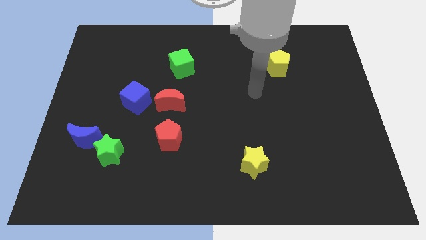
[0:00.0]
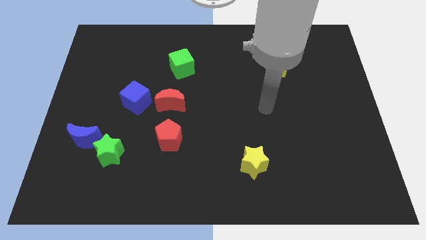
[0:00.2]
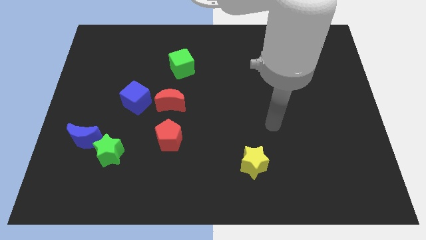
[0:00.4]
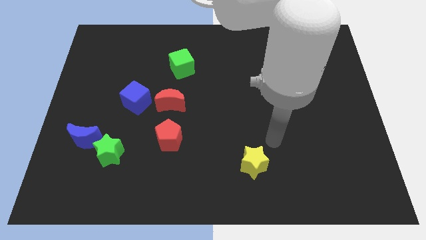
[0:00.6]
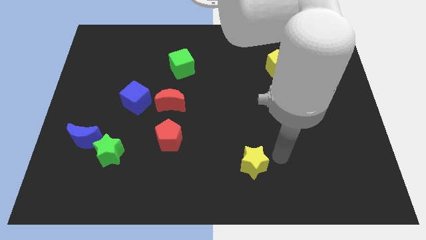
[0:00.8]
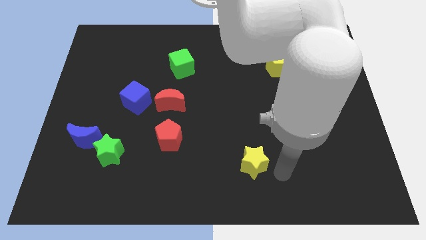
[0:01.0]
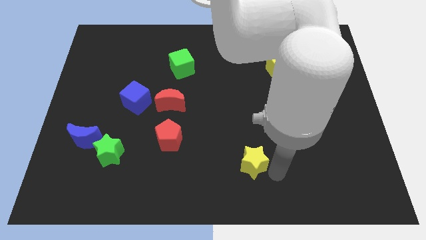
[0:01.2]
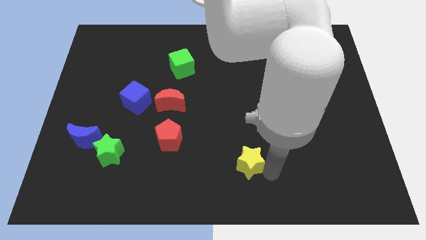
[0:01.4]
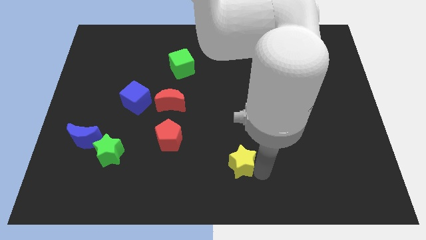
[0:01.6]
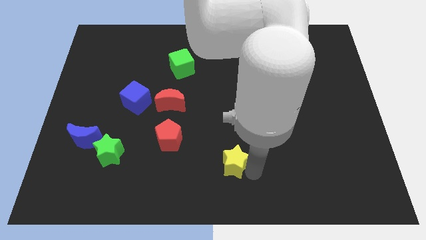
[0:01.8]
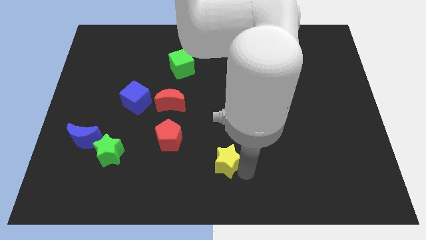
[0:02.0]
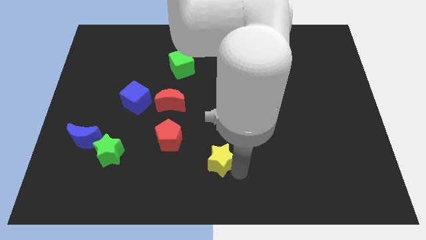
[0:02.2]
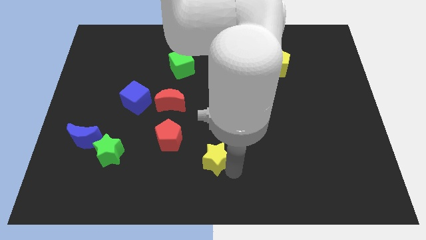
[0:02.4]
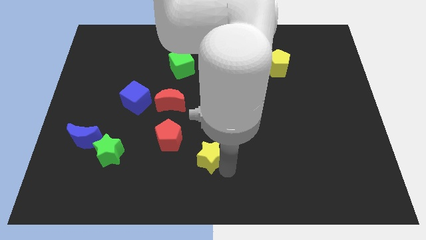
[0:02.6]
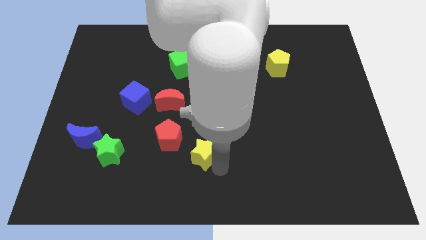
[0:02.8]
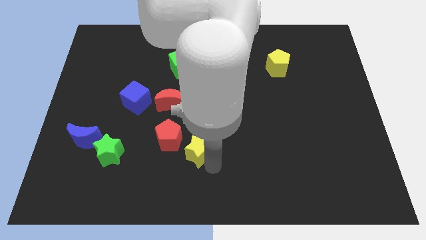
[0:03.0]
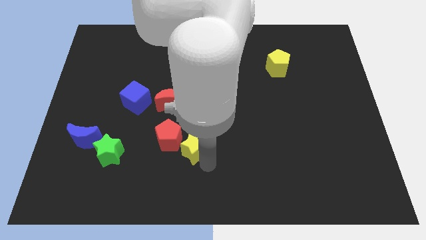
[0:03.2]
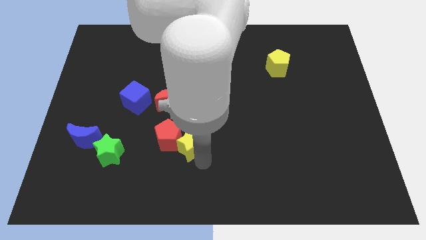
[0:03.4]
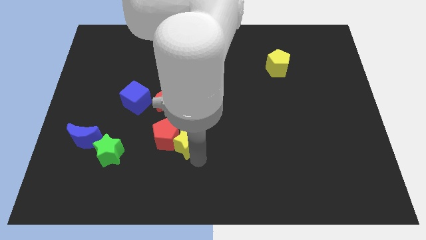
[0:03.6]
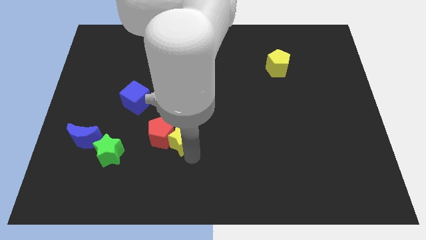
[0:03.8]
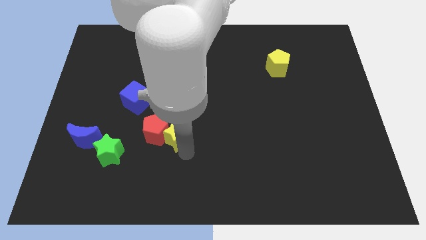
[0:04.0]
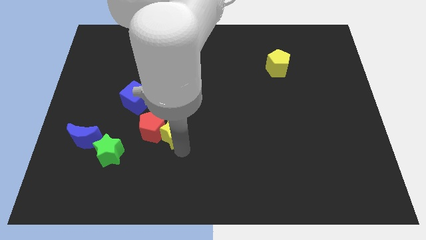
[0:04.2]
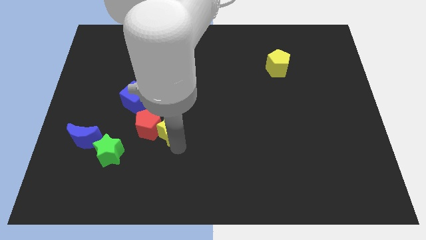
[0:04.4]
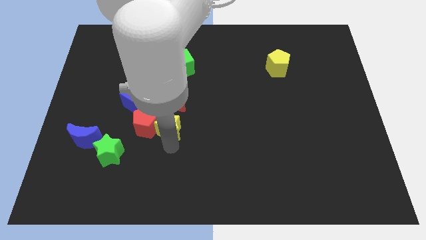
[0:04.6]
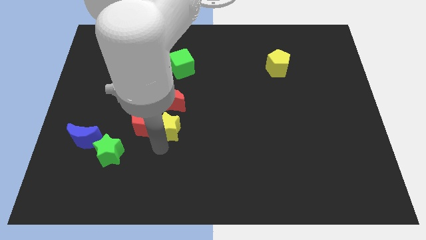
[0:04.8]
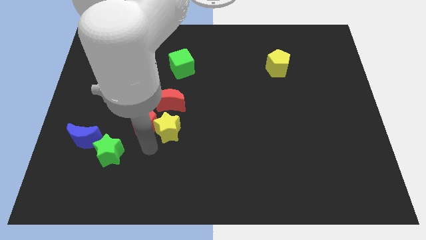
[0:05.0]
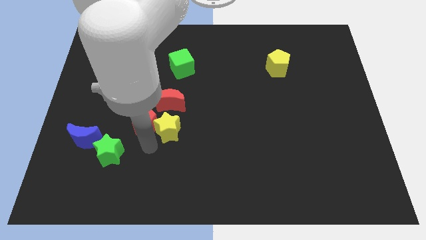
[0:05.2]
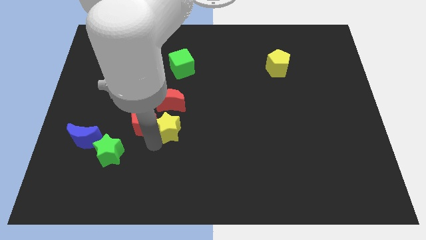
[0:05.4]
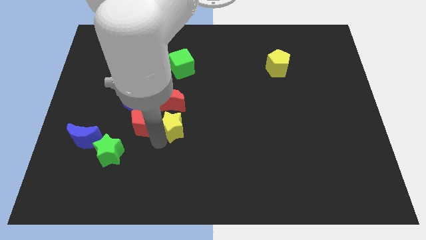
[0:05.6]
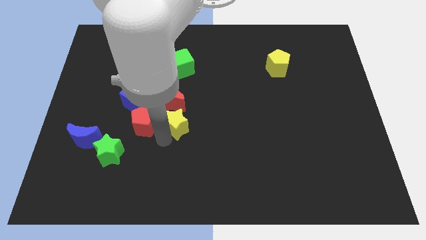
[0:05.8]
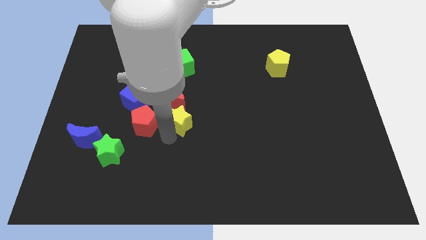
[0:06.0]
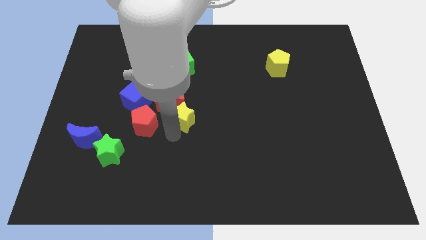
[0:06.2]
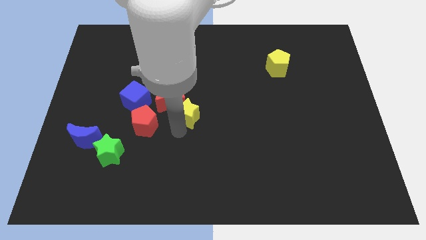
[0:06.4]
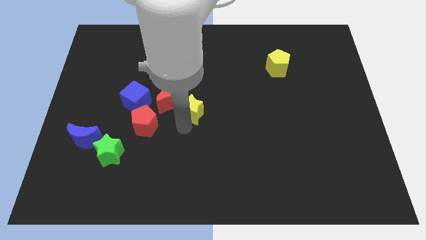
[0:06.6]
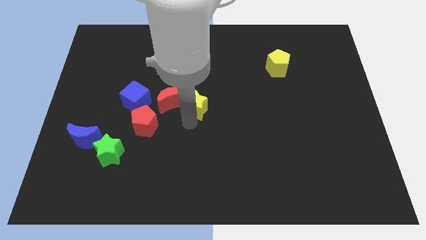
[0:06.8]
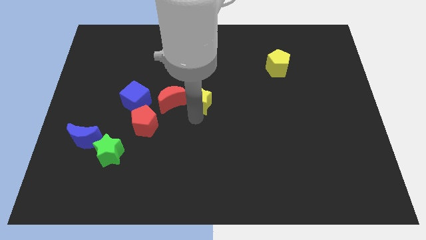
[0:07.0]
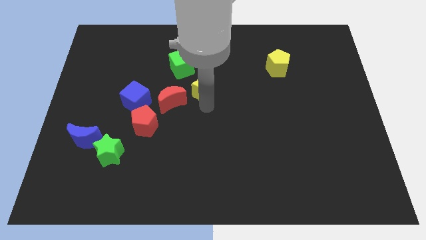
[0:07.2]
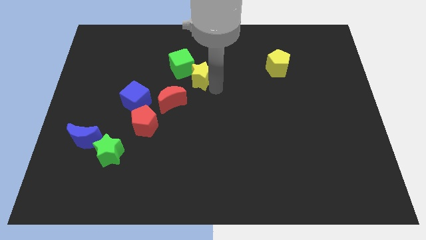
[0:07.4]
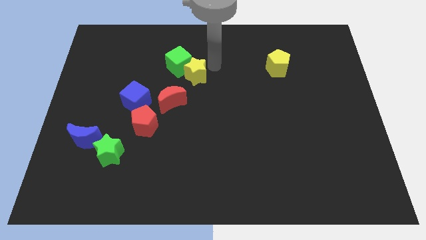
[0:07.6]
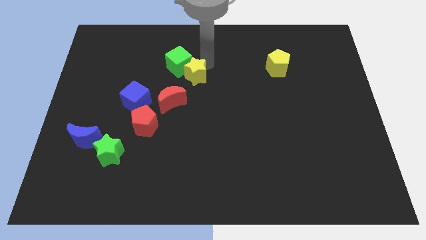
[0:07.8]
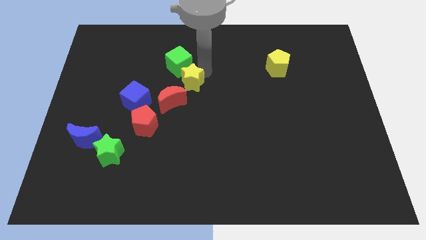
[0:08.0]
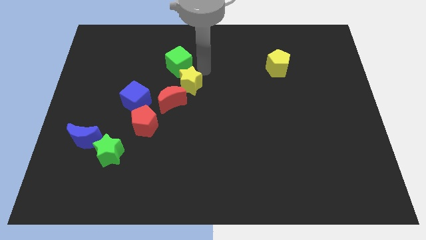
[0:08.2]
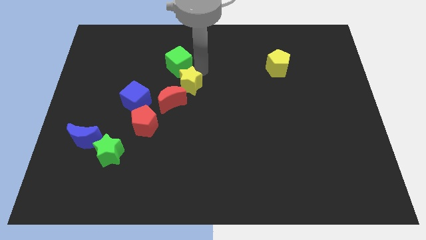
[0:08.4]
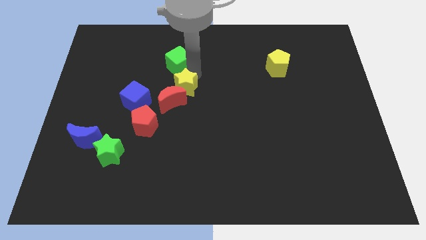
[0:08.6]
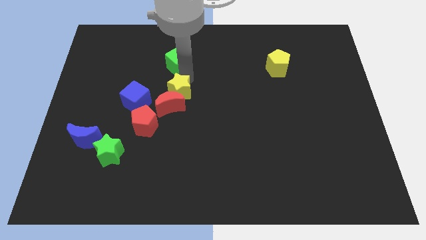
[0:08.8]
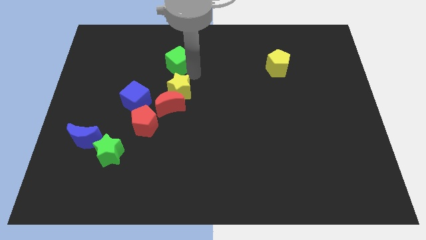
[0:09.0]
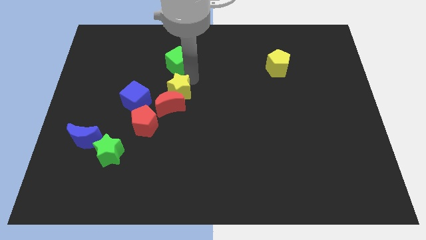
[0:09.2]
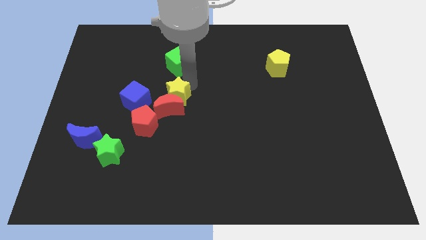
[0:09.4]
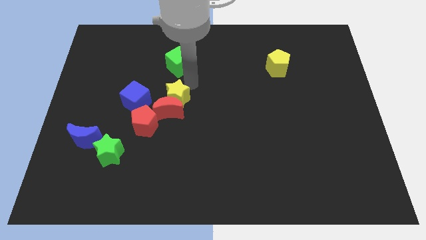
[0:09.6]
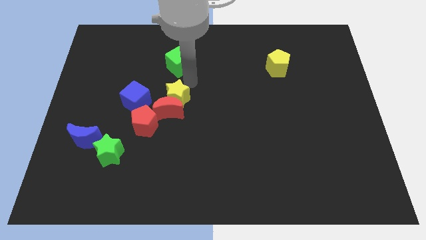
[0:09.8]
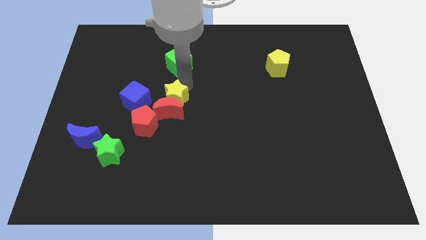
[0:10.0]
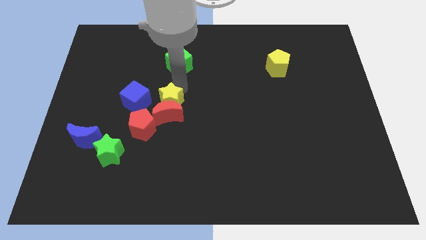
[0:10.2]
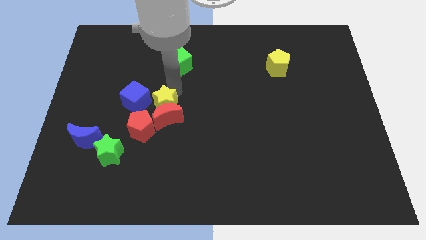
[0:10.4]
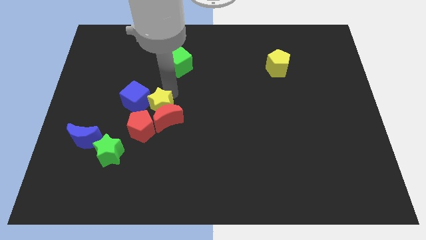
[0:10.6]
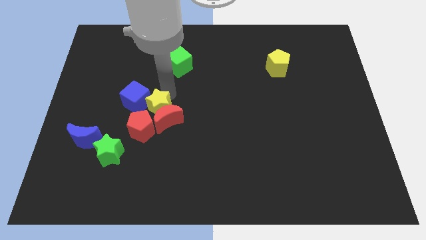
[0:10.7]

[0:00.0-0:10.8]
put the yellow star to the left side of the red moon

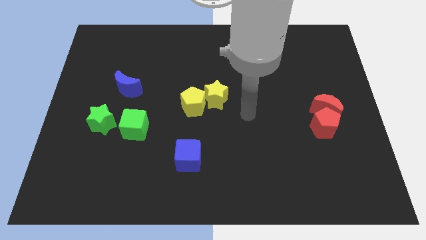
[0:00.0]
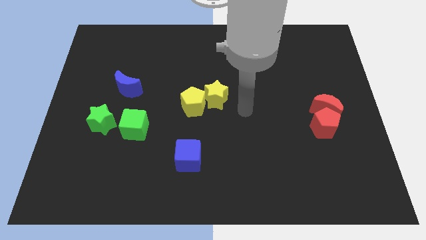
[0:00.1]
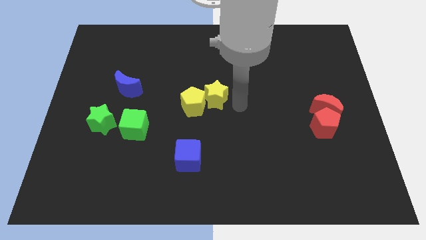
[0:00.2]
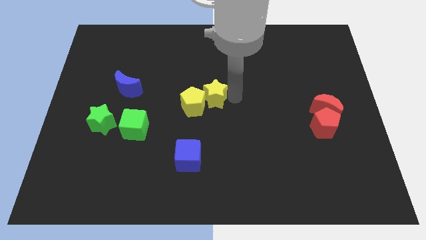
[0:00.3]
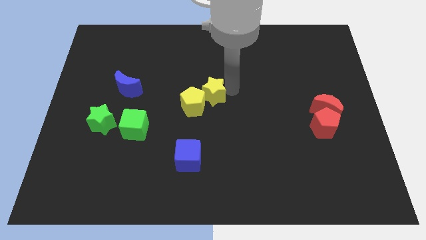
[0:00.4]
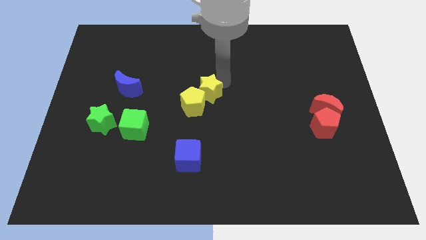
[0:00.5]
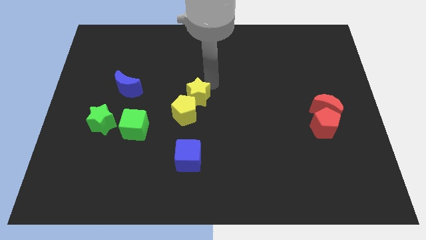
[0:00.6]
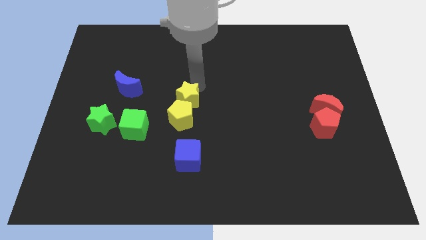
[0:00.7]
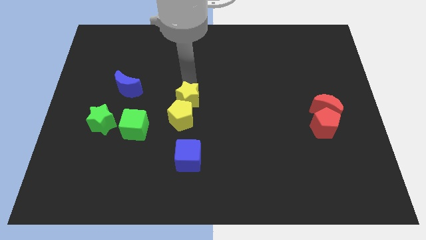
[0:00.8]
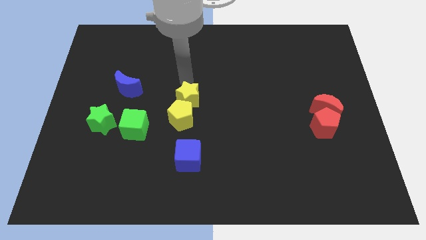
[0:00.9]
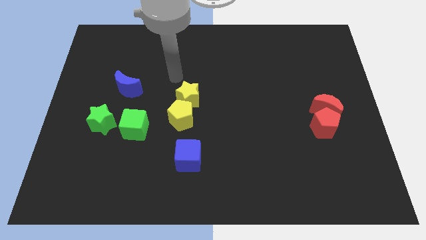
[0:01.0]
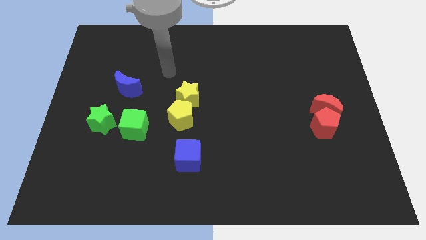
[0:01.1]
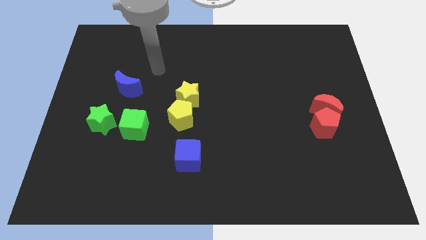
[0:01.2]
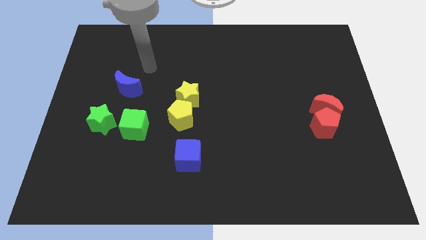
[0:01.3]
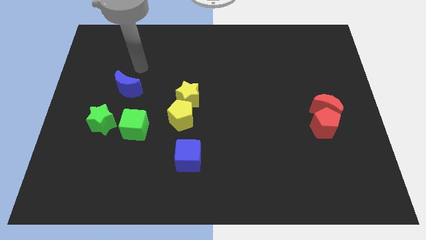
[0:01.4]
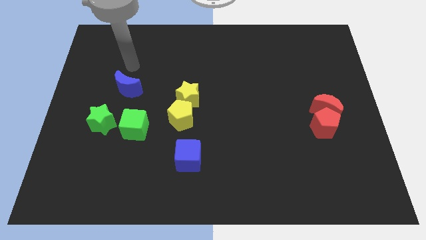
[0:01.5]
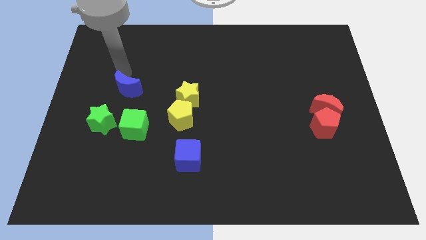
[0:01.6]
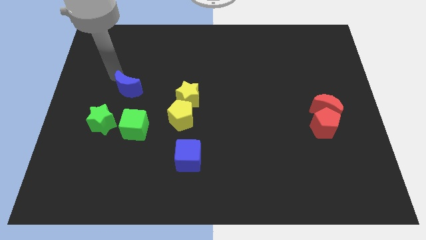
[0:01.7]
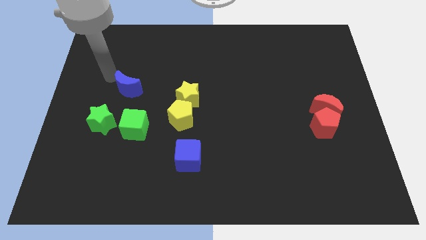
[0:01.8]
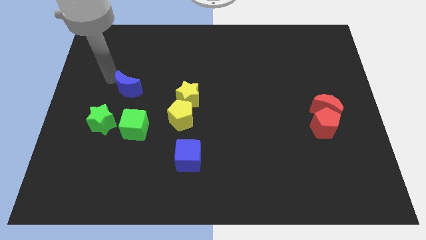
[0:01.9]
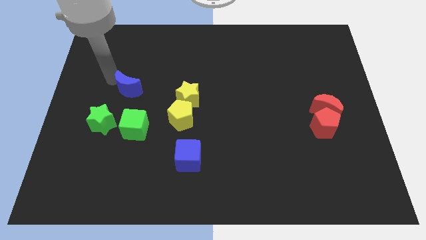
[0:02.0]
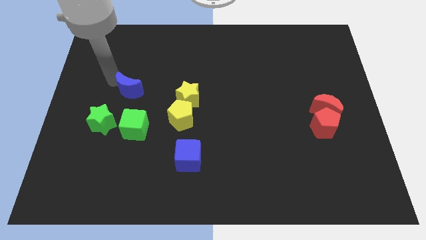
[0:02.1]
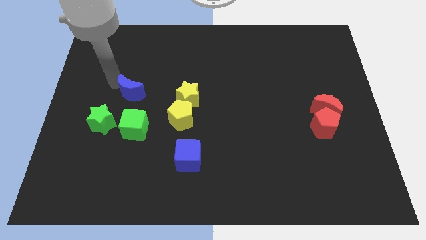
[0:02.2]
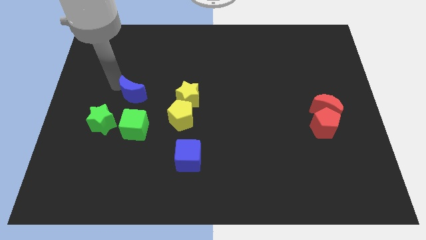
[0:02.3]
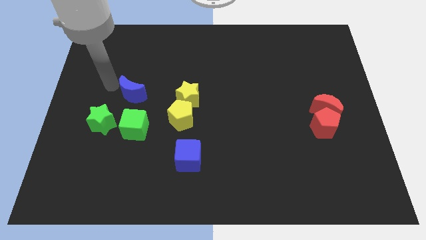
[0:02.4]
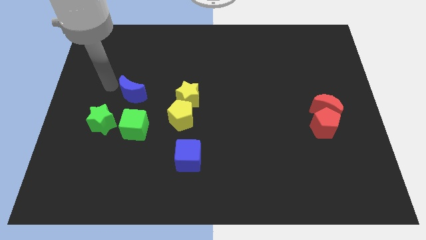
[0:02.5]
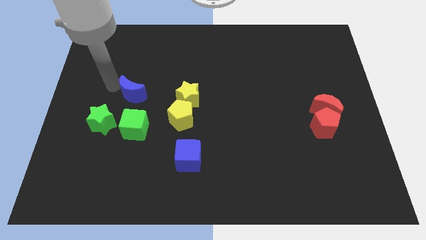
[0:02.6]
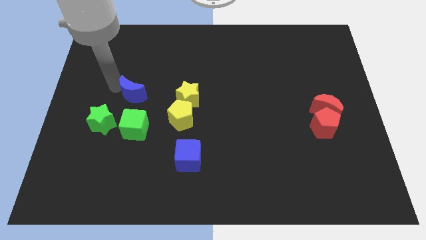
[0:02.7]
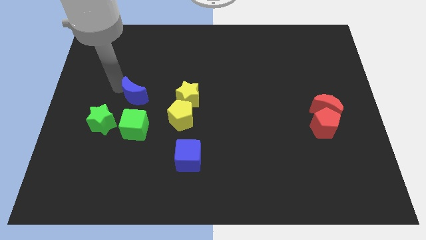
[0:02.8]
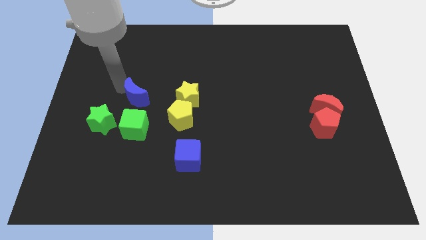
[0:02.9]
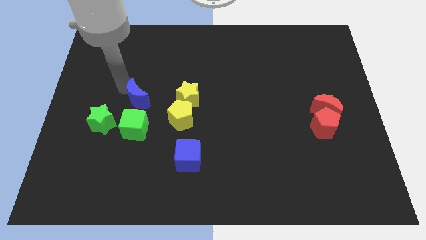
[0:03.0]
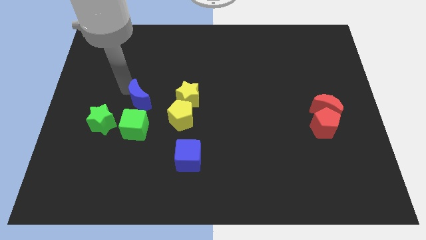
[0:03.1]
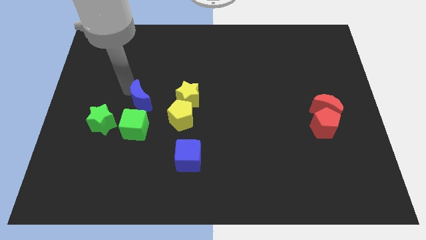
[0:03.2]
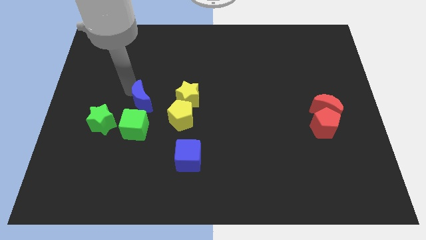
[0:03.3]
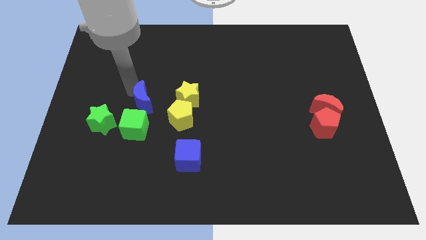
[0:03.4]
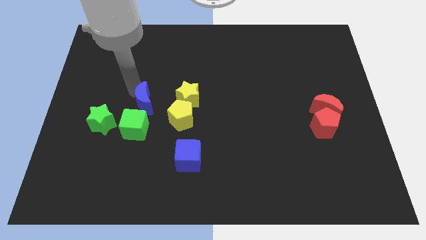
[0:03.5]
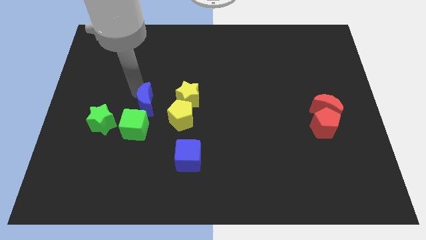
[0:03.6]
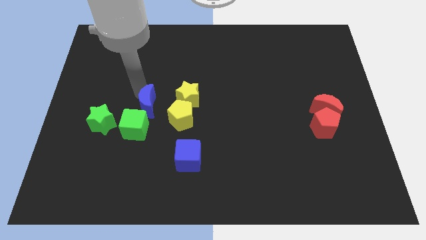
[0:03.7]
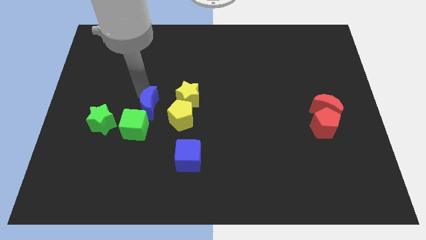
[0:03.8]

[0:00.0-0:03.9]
slide the blue moon right of the green star
